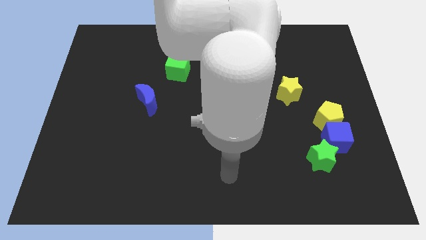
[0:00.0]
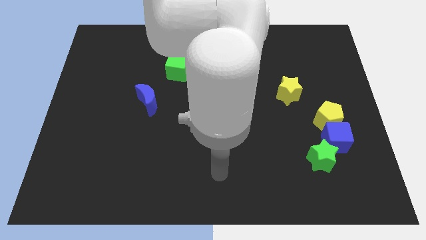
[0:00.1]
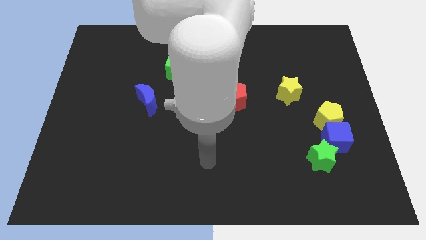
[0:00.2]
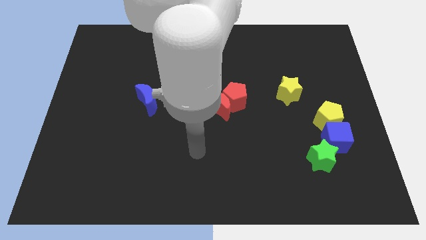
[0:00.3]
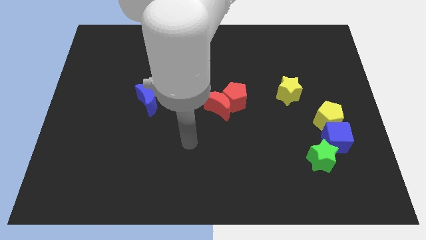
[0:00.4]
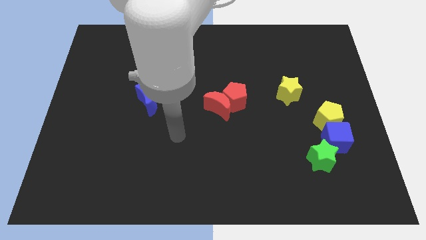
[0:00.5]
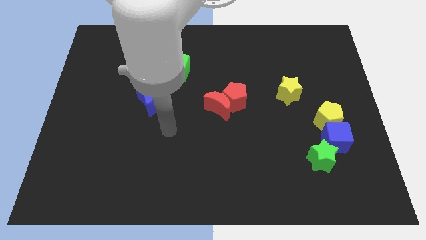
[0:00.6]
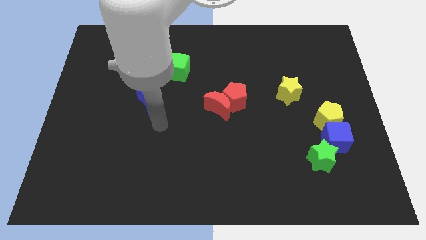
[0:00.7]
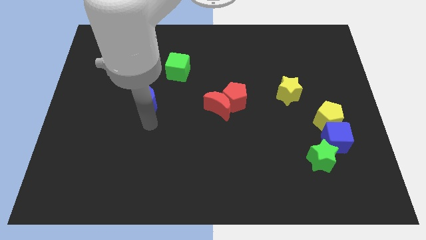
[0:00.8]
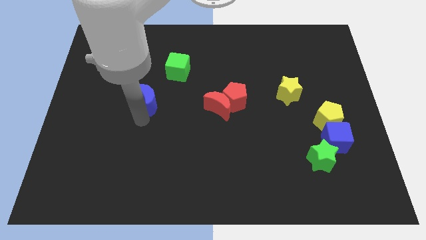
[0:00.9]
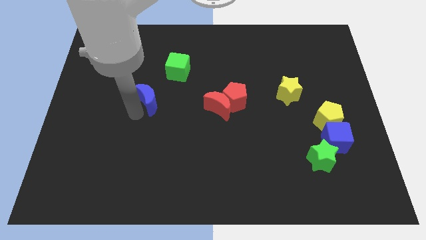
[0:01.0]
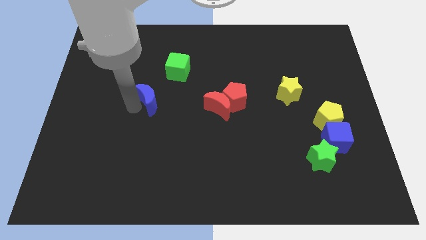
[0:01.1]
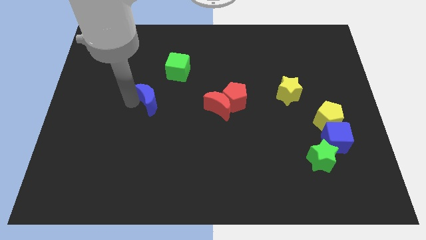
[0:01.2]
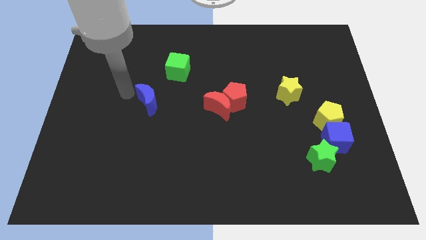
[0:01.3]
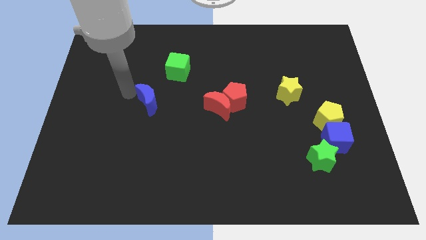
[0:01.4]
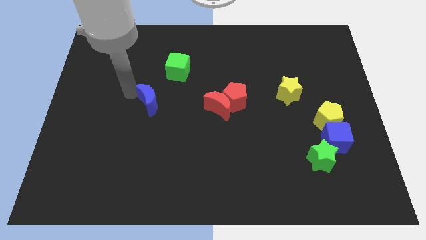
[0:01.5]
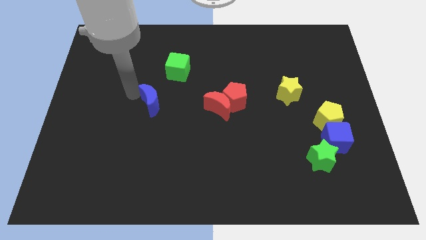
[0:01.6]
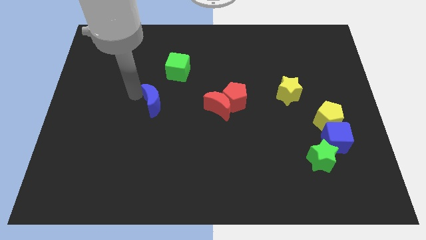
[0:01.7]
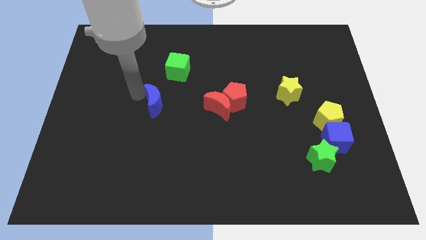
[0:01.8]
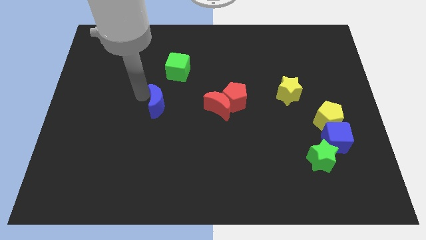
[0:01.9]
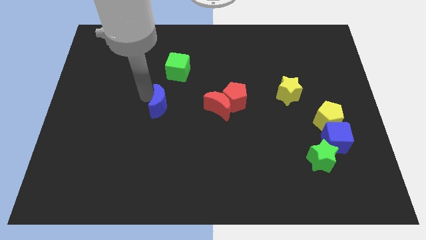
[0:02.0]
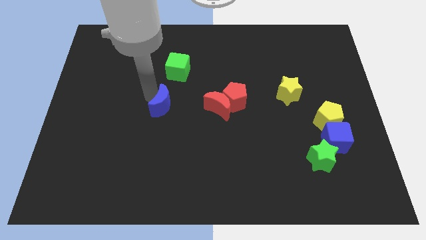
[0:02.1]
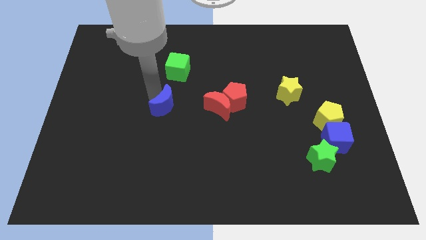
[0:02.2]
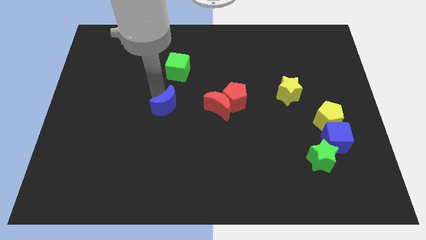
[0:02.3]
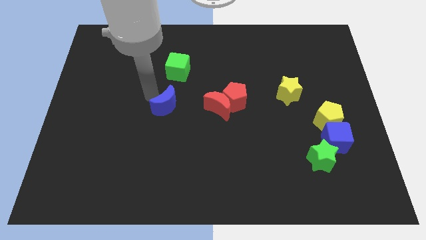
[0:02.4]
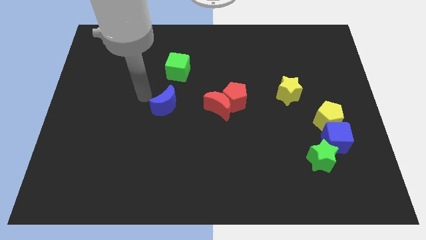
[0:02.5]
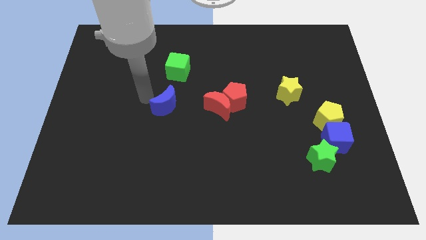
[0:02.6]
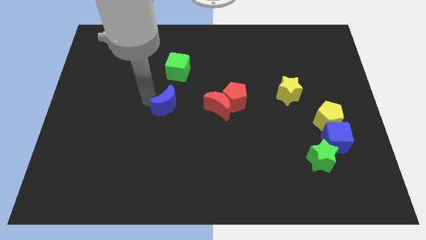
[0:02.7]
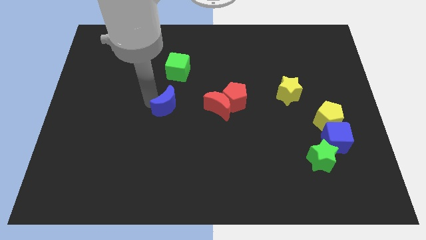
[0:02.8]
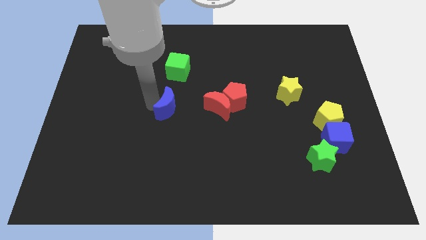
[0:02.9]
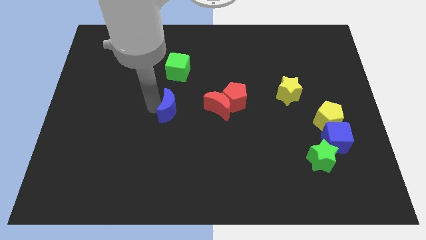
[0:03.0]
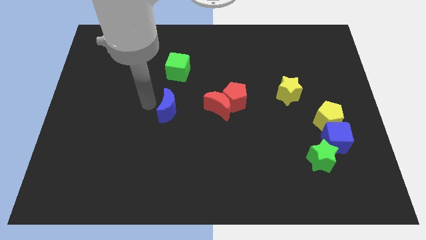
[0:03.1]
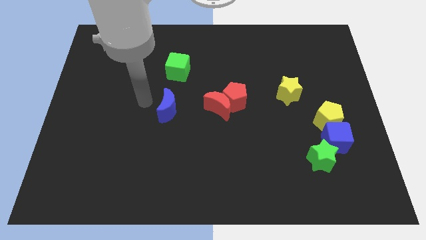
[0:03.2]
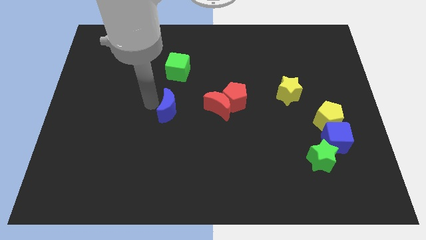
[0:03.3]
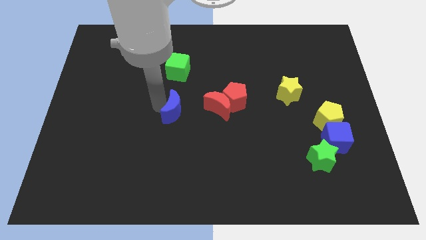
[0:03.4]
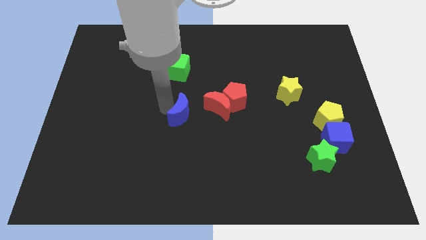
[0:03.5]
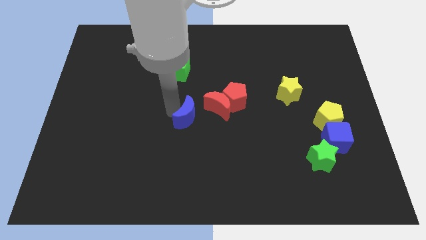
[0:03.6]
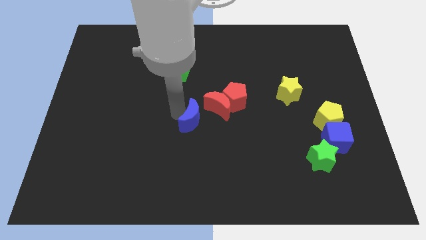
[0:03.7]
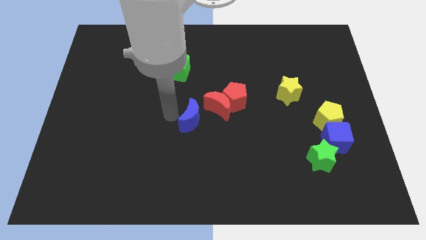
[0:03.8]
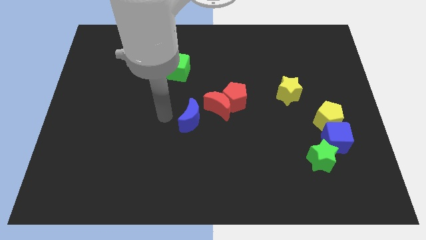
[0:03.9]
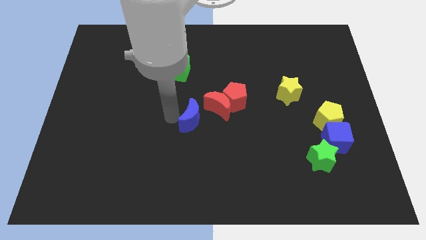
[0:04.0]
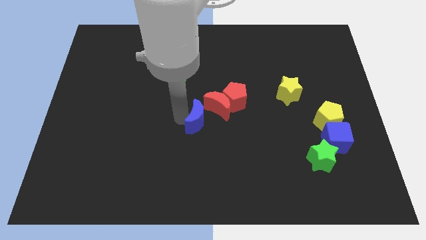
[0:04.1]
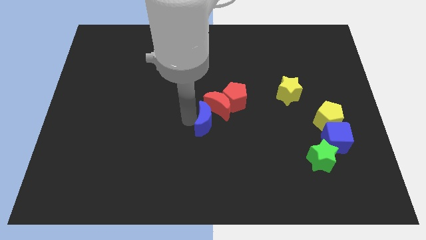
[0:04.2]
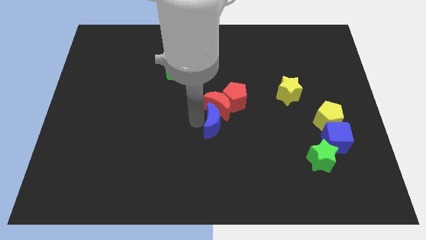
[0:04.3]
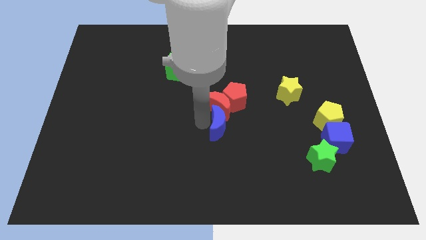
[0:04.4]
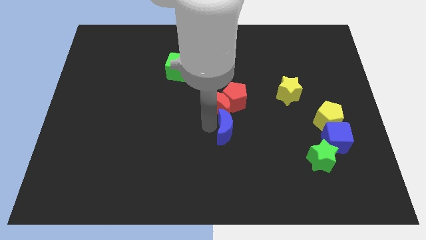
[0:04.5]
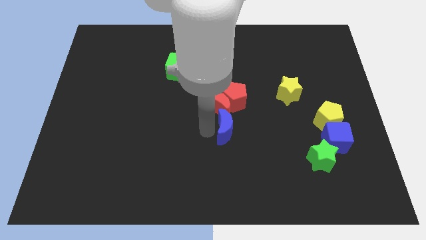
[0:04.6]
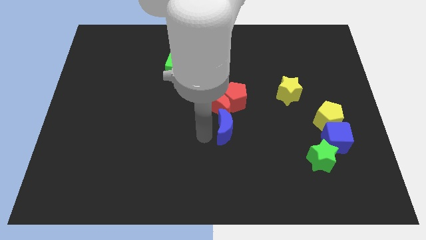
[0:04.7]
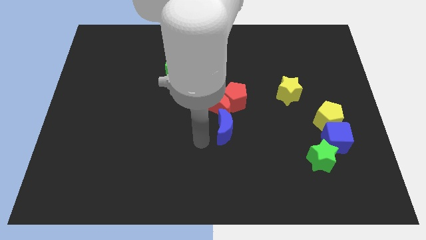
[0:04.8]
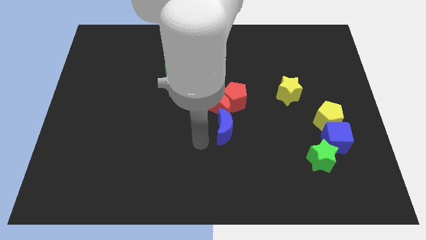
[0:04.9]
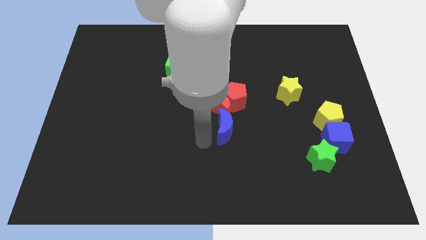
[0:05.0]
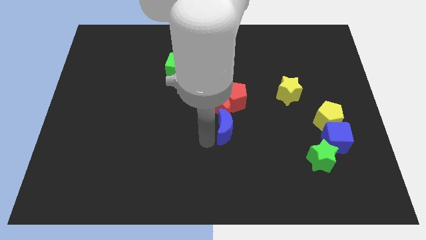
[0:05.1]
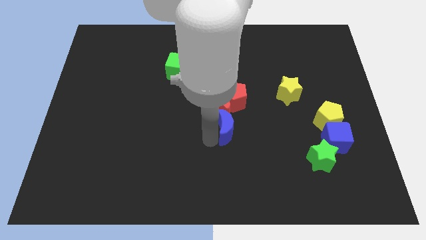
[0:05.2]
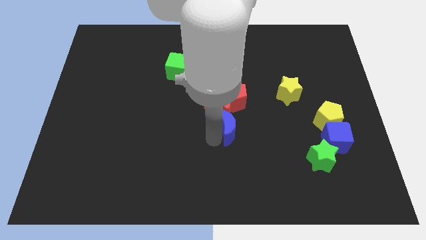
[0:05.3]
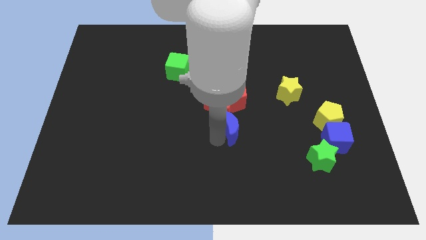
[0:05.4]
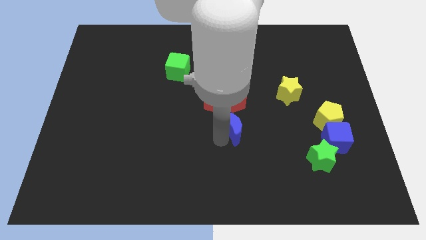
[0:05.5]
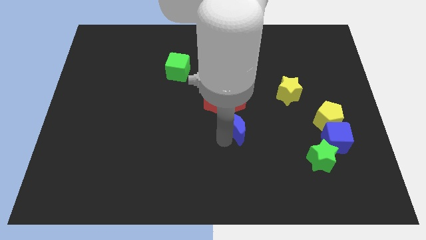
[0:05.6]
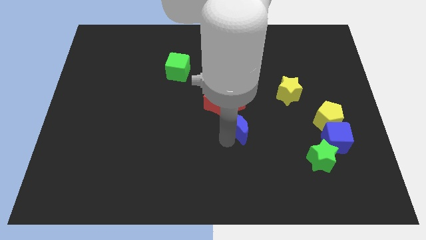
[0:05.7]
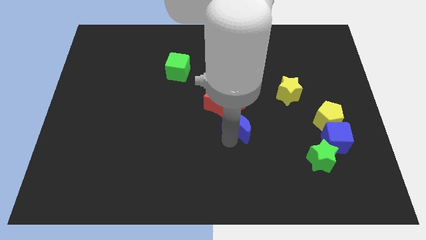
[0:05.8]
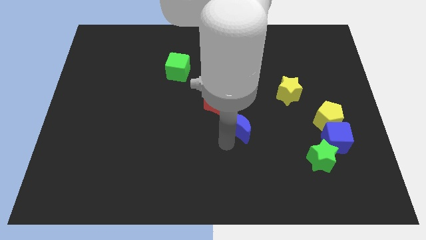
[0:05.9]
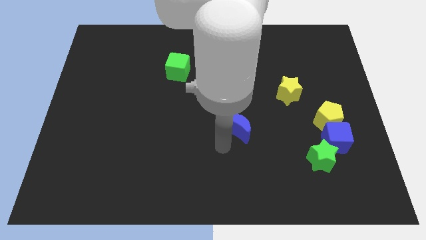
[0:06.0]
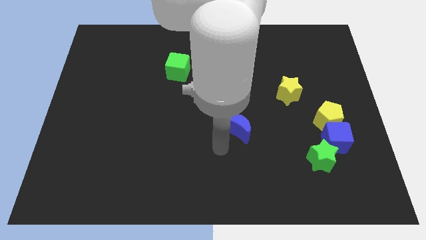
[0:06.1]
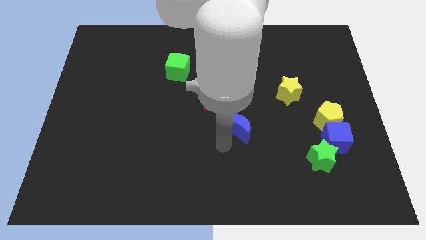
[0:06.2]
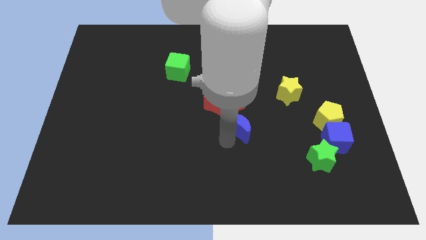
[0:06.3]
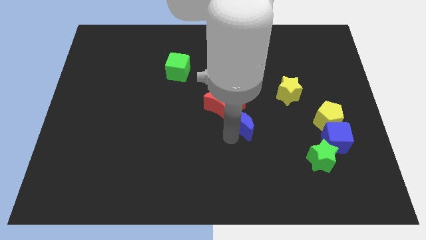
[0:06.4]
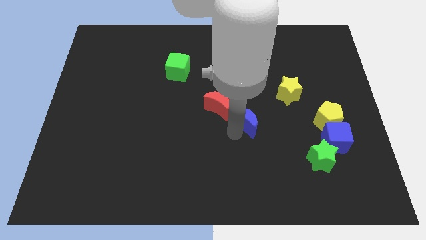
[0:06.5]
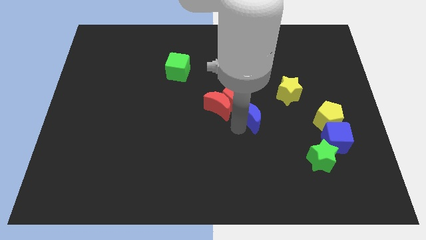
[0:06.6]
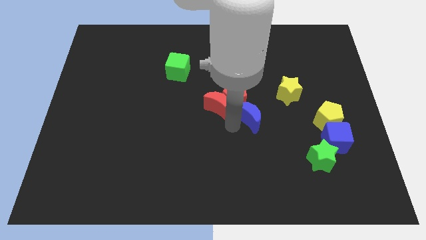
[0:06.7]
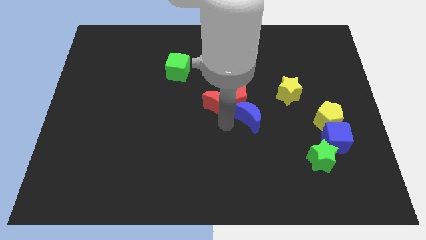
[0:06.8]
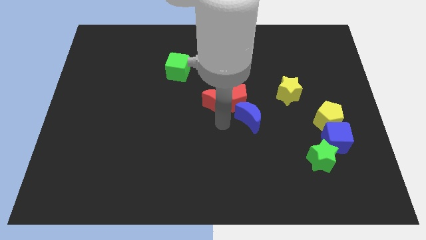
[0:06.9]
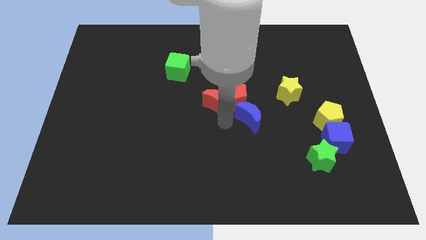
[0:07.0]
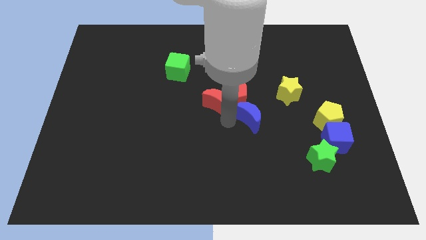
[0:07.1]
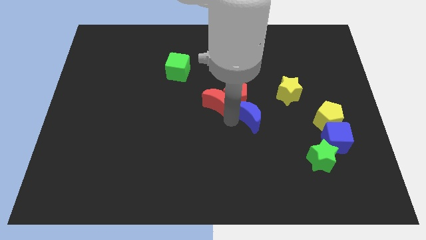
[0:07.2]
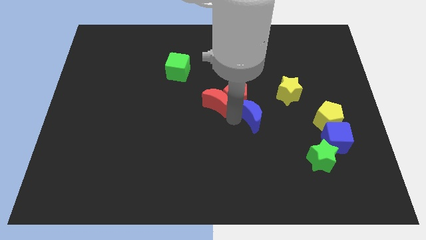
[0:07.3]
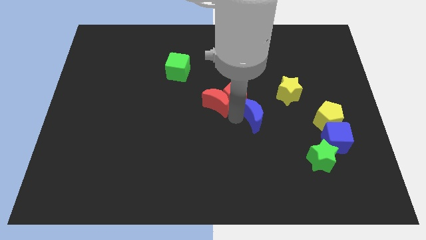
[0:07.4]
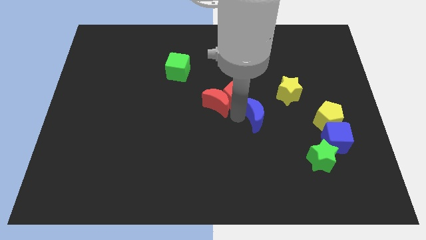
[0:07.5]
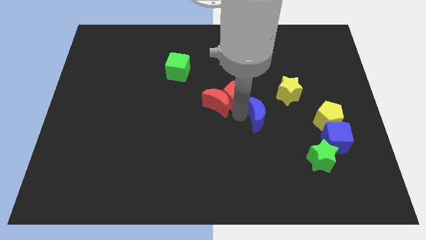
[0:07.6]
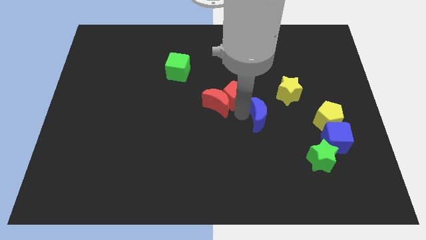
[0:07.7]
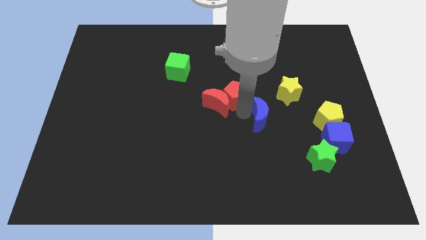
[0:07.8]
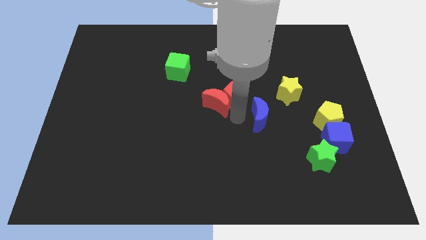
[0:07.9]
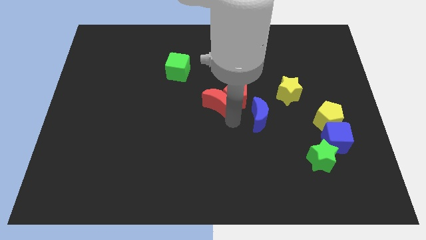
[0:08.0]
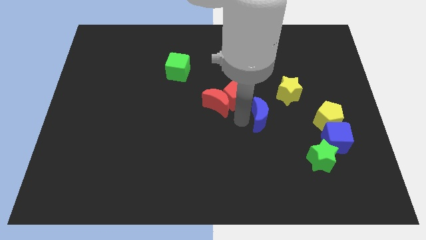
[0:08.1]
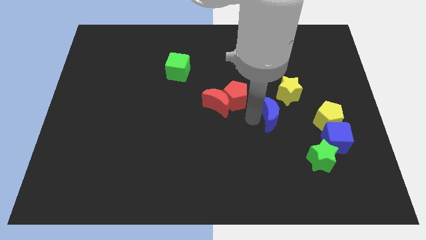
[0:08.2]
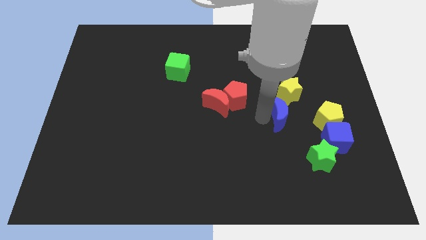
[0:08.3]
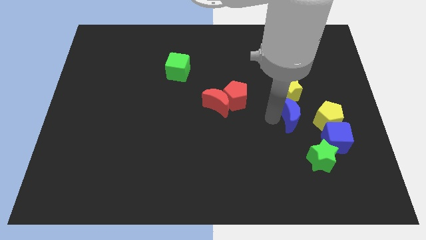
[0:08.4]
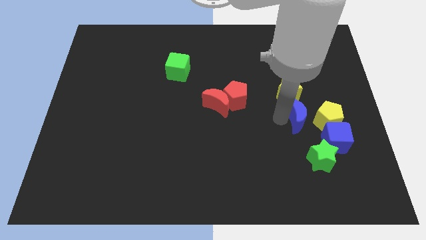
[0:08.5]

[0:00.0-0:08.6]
push the blue moon diagonally down and to the right of the yellow star
